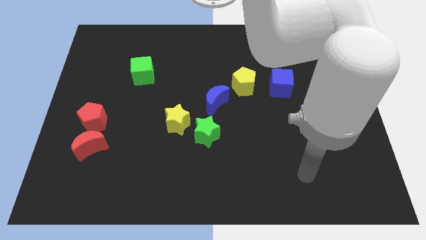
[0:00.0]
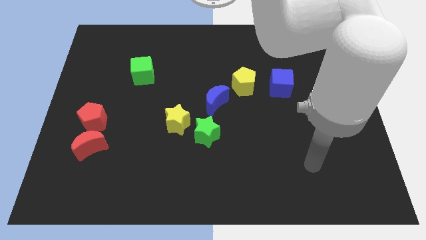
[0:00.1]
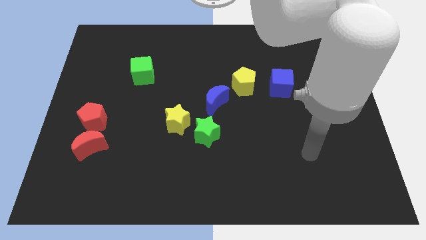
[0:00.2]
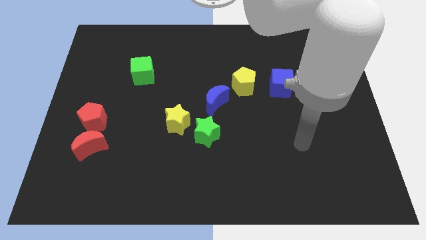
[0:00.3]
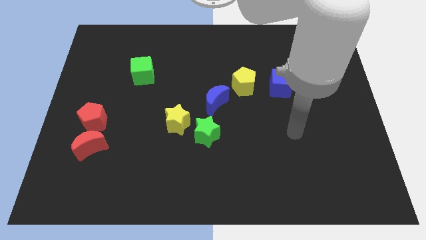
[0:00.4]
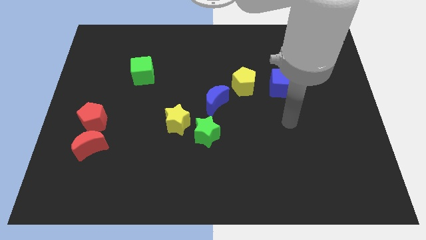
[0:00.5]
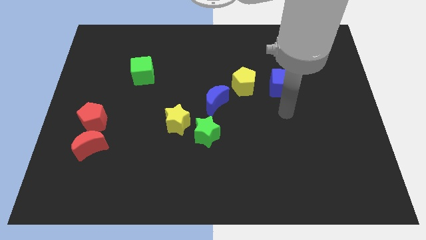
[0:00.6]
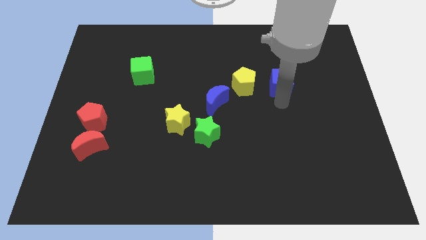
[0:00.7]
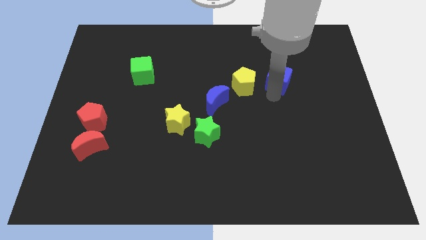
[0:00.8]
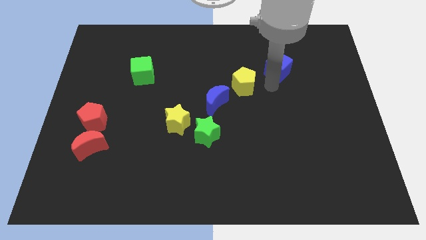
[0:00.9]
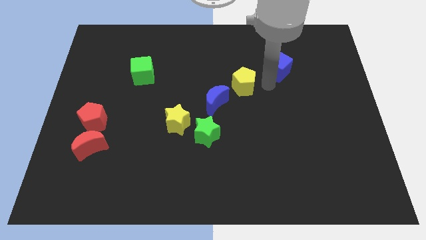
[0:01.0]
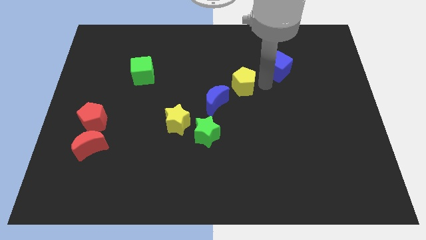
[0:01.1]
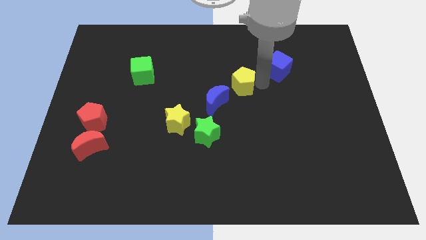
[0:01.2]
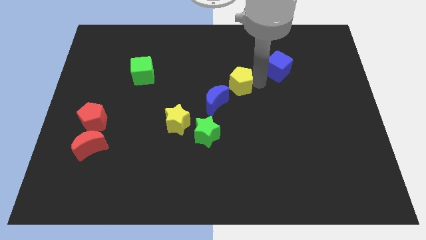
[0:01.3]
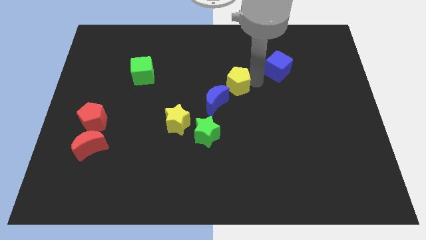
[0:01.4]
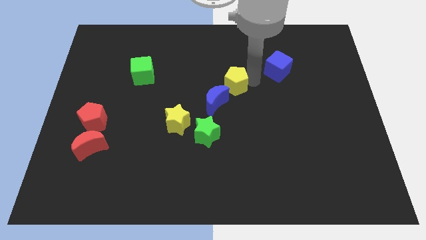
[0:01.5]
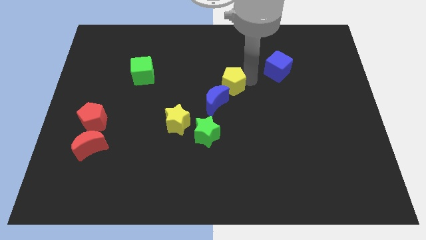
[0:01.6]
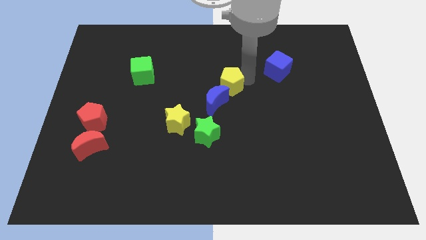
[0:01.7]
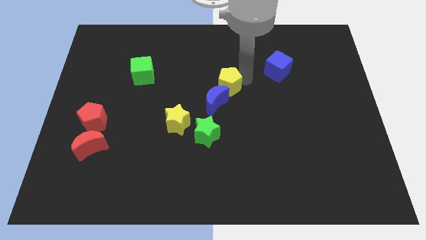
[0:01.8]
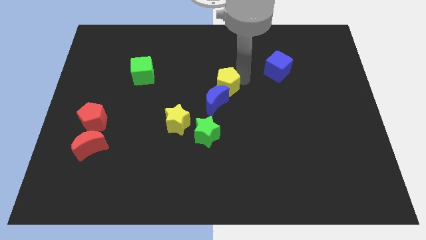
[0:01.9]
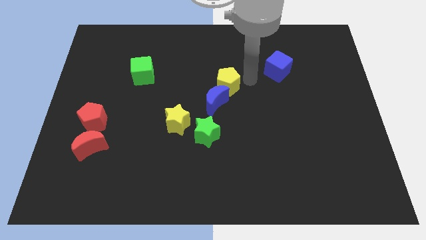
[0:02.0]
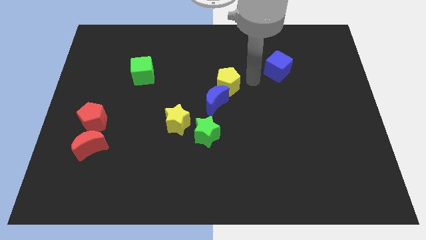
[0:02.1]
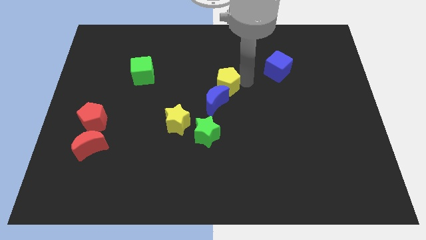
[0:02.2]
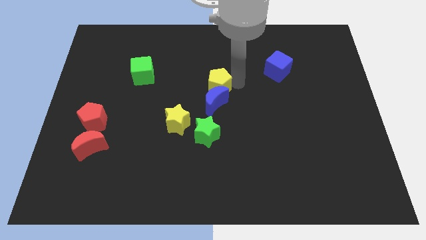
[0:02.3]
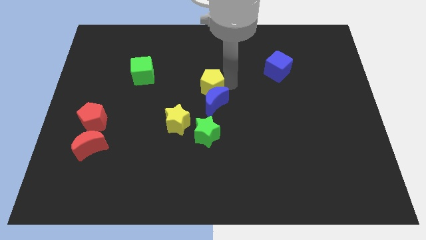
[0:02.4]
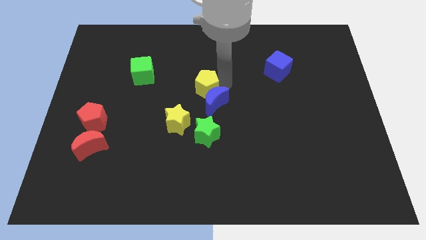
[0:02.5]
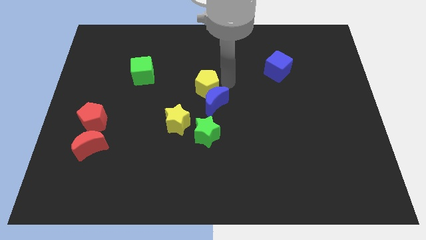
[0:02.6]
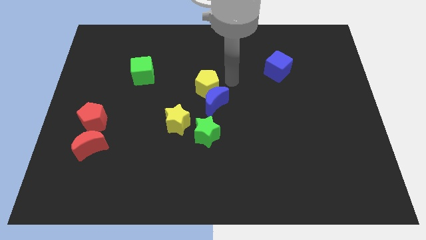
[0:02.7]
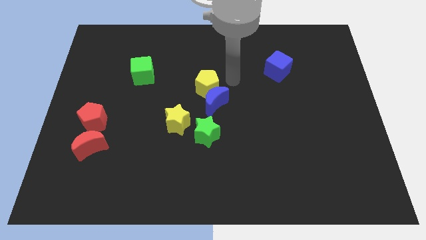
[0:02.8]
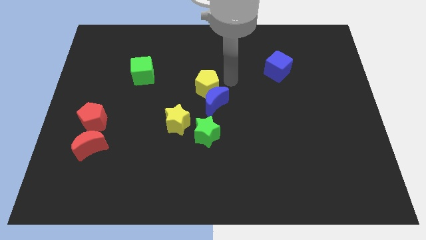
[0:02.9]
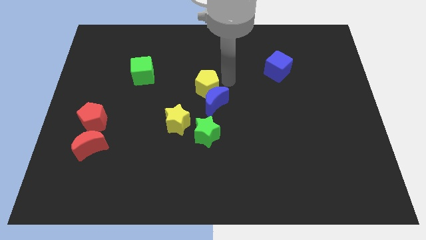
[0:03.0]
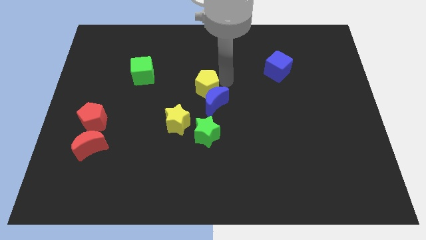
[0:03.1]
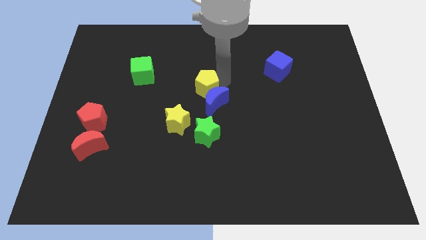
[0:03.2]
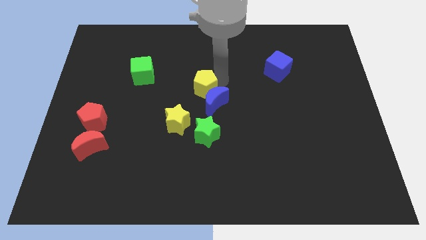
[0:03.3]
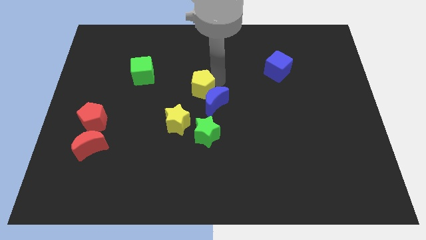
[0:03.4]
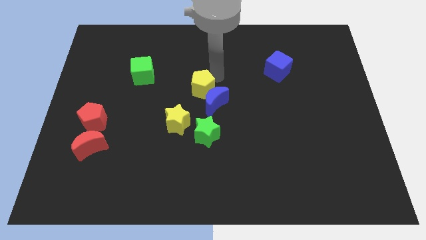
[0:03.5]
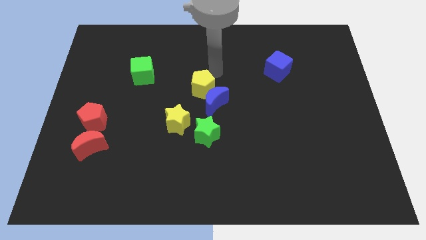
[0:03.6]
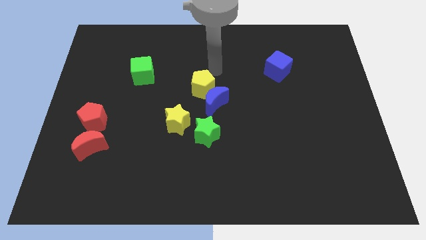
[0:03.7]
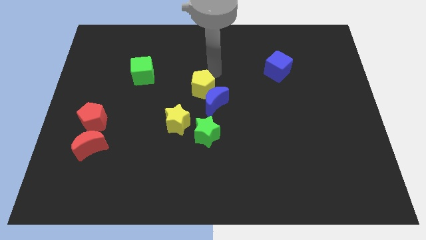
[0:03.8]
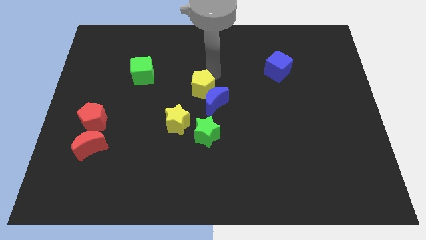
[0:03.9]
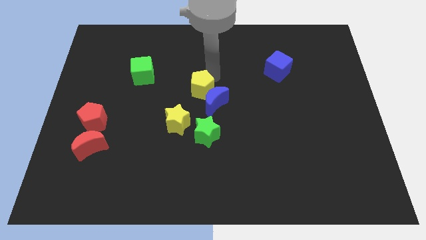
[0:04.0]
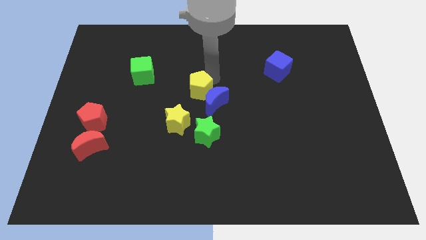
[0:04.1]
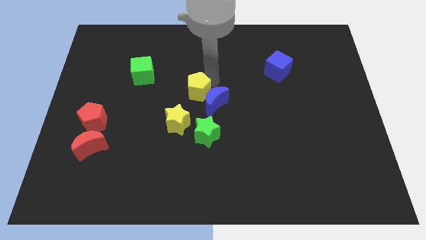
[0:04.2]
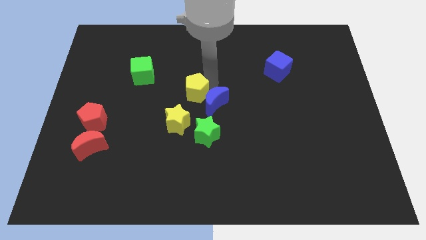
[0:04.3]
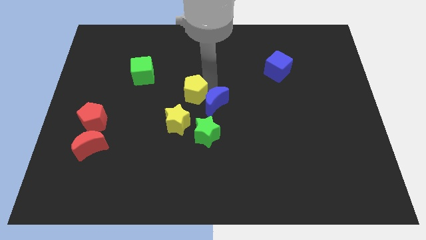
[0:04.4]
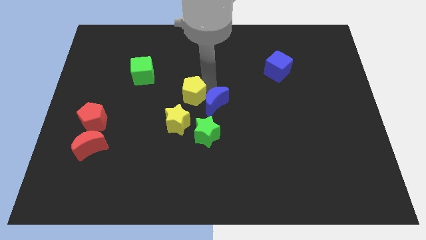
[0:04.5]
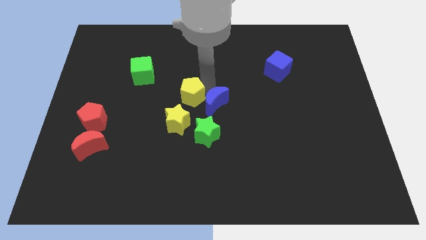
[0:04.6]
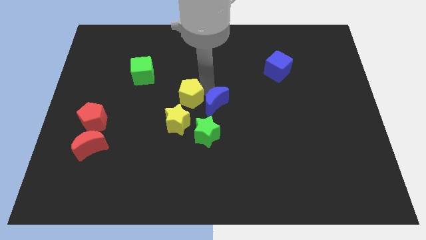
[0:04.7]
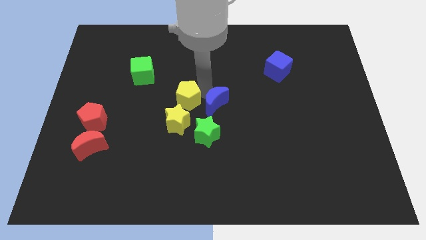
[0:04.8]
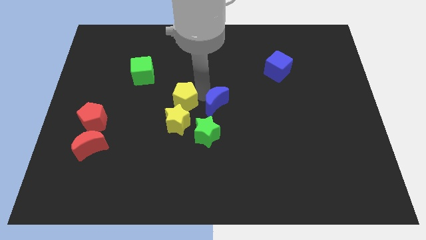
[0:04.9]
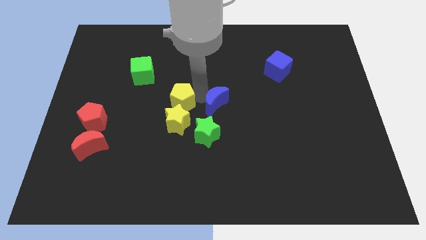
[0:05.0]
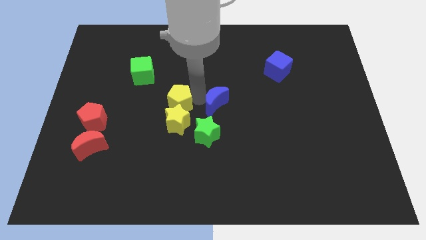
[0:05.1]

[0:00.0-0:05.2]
put the yellow pentagon next to the yellow star

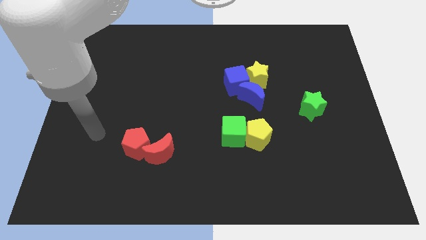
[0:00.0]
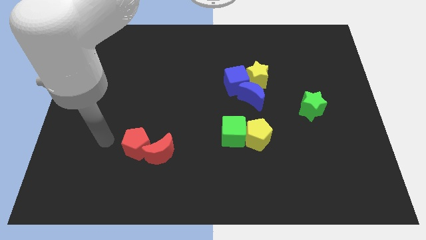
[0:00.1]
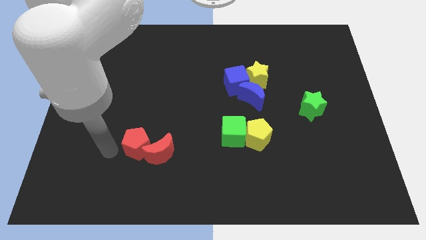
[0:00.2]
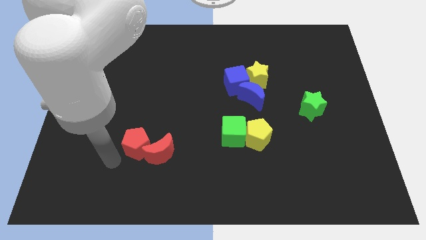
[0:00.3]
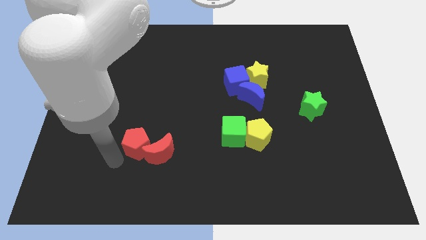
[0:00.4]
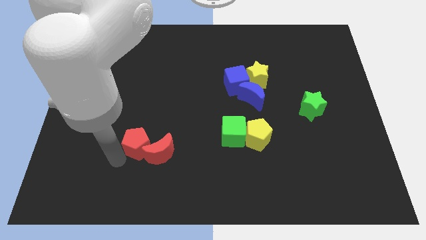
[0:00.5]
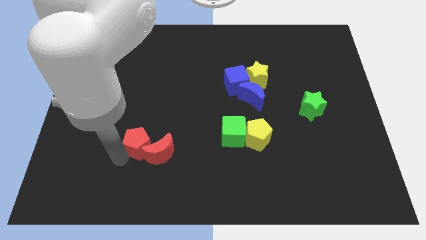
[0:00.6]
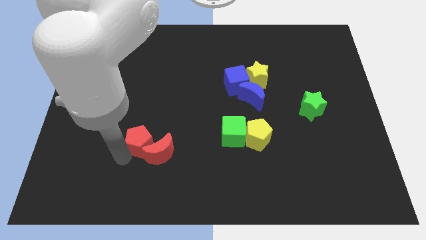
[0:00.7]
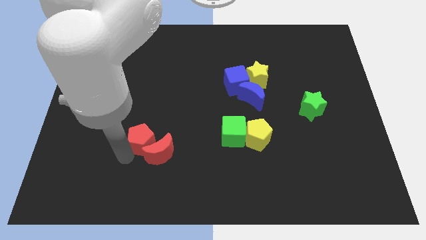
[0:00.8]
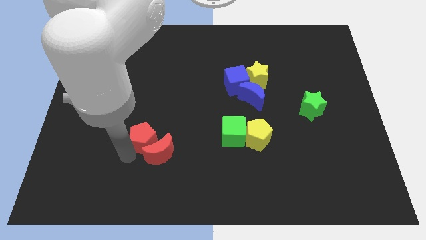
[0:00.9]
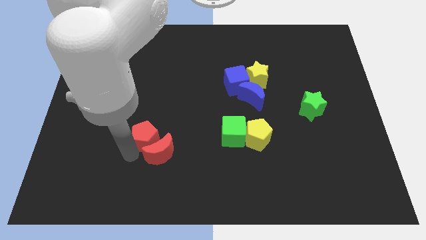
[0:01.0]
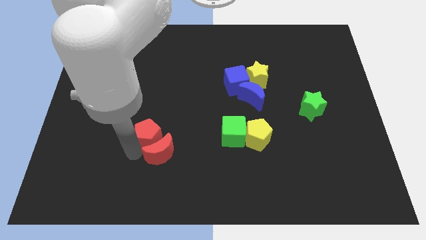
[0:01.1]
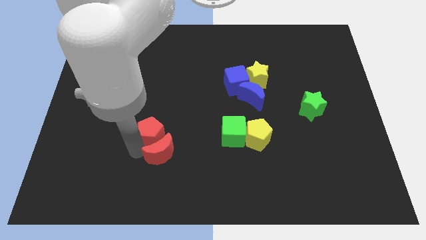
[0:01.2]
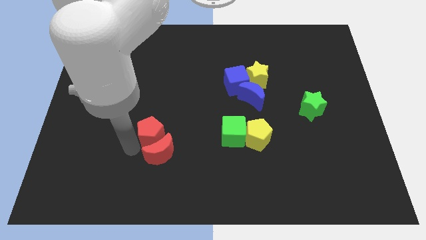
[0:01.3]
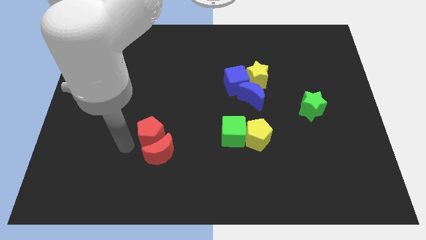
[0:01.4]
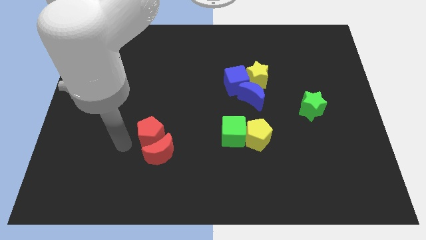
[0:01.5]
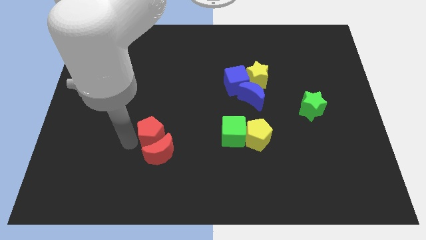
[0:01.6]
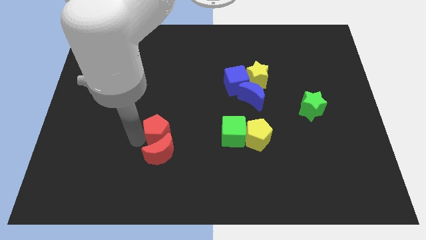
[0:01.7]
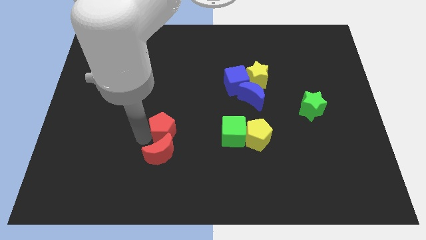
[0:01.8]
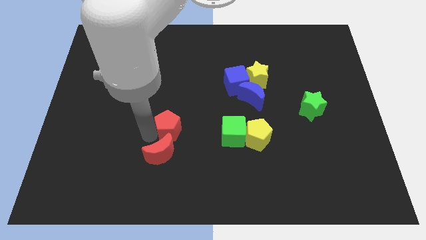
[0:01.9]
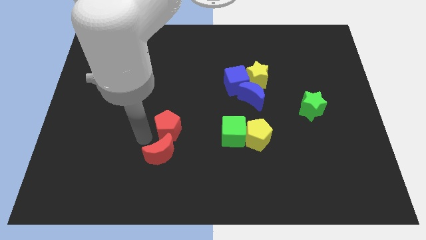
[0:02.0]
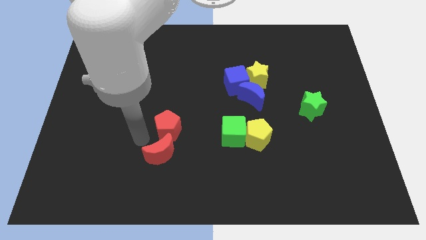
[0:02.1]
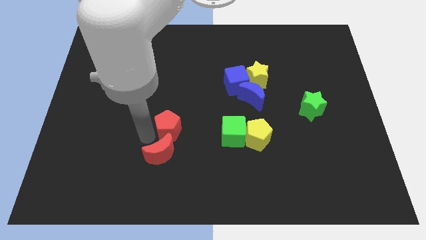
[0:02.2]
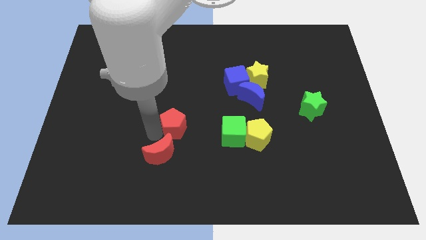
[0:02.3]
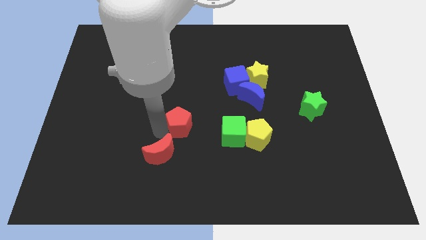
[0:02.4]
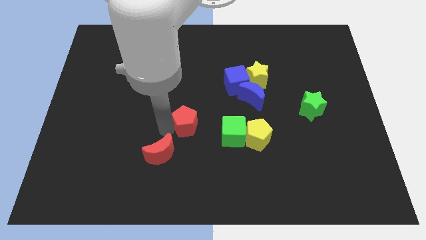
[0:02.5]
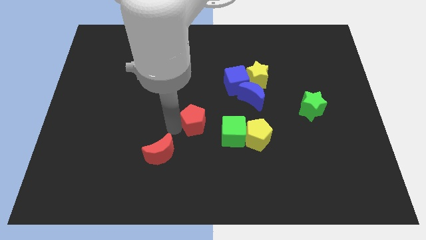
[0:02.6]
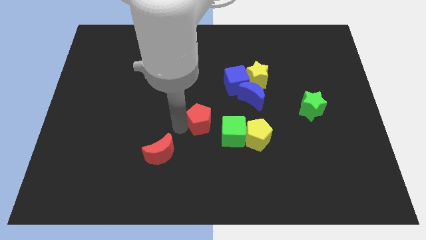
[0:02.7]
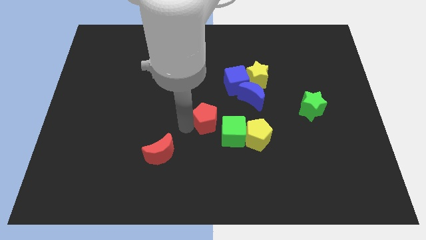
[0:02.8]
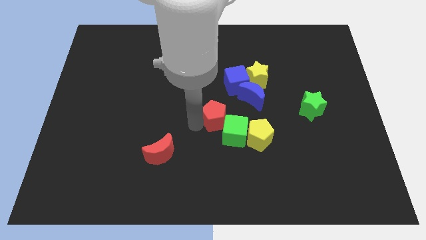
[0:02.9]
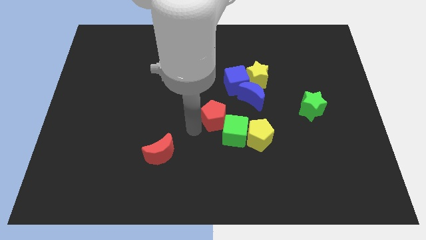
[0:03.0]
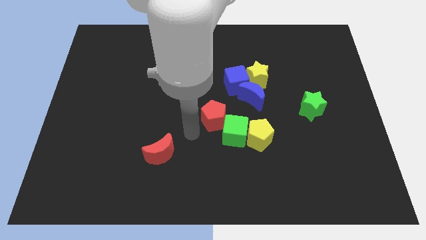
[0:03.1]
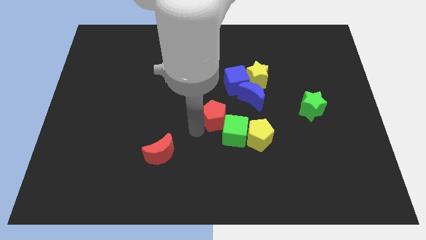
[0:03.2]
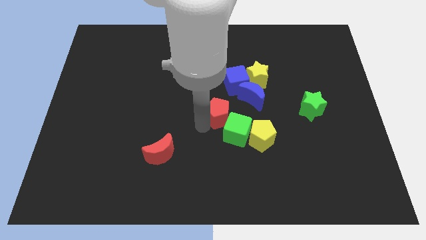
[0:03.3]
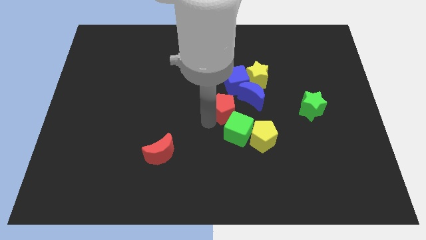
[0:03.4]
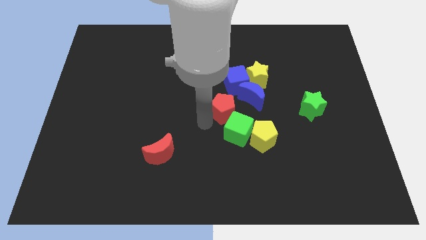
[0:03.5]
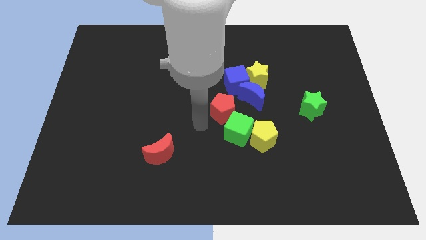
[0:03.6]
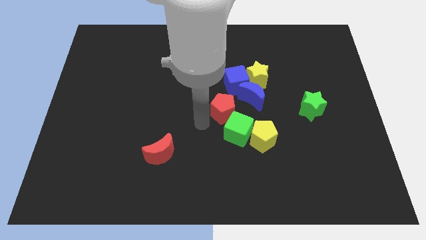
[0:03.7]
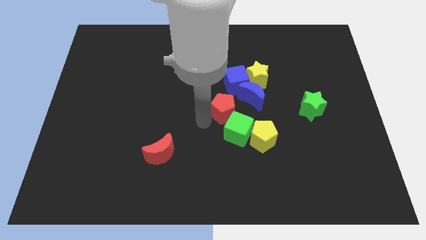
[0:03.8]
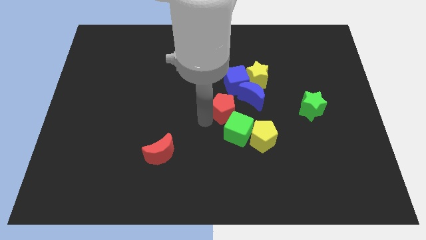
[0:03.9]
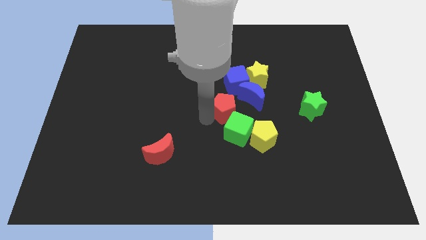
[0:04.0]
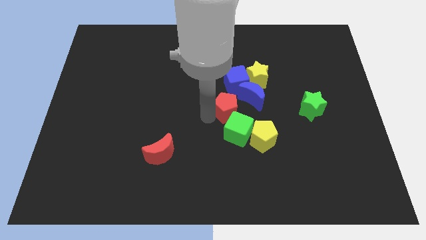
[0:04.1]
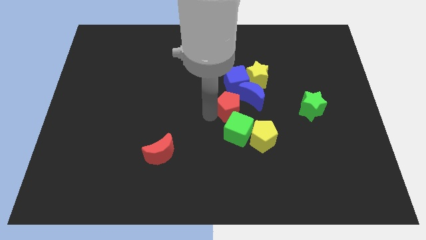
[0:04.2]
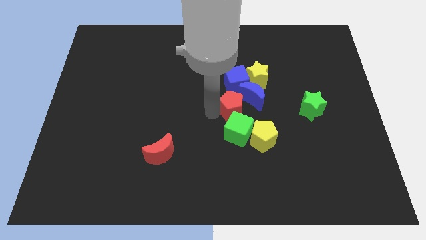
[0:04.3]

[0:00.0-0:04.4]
slide the red pentagon next to the blue moon
